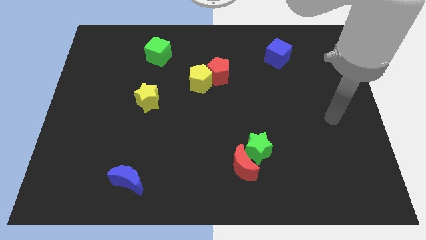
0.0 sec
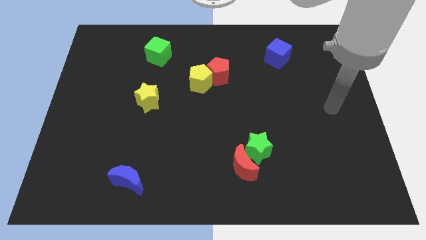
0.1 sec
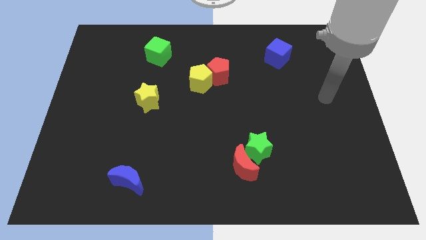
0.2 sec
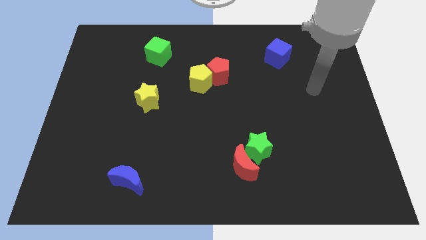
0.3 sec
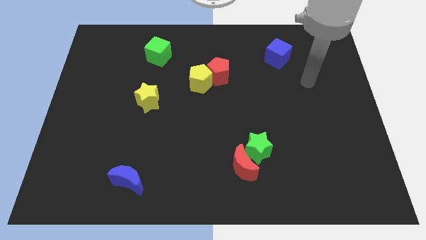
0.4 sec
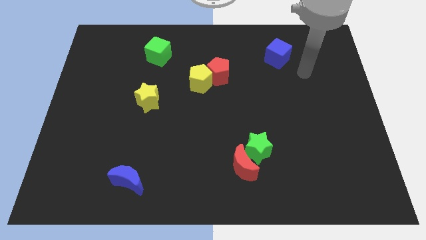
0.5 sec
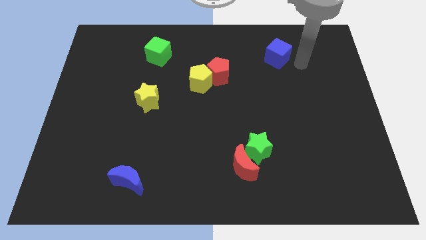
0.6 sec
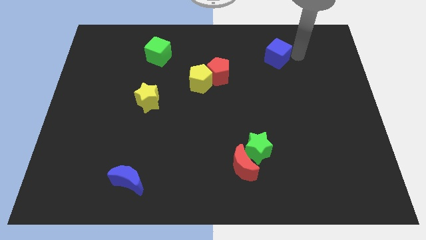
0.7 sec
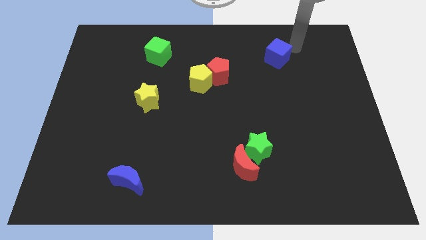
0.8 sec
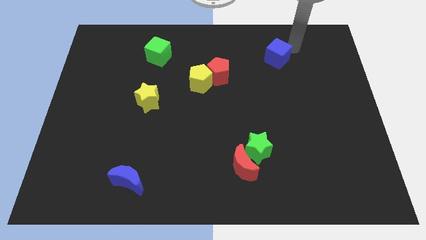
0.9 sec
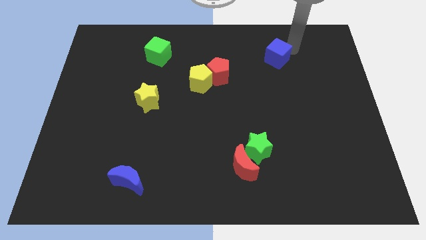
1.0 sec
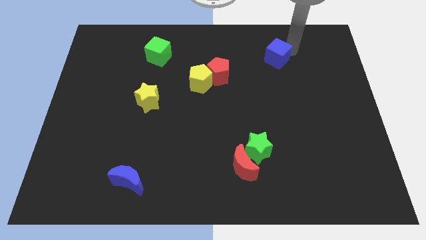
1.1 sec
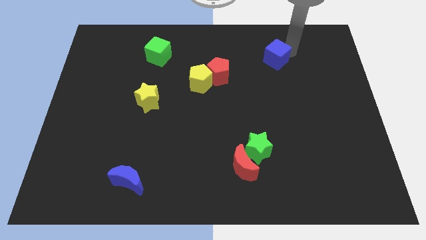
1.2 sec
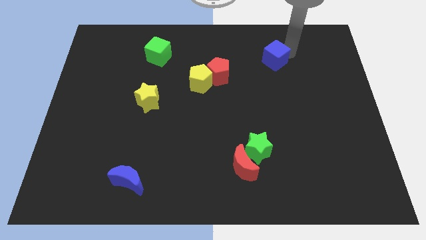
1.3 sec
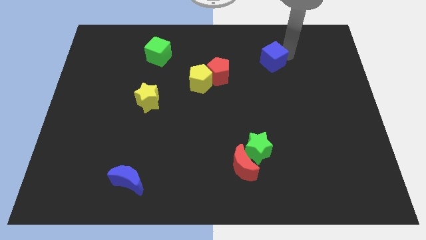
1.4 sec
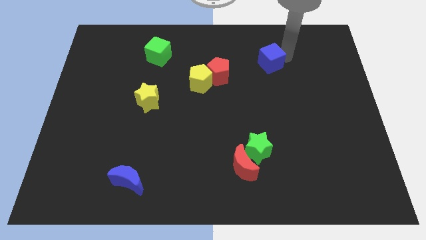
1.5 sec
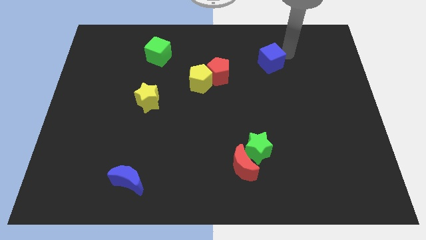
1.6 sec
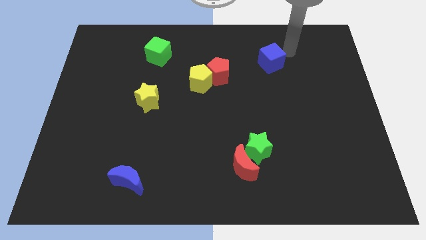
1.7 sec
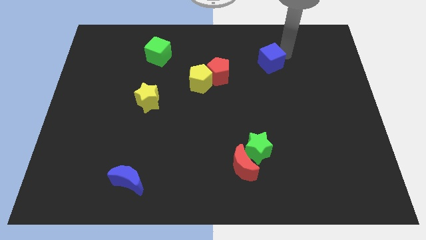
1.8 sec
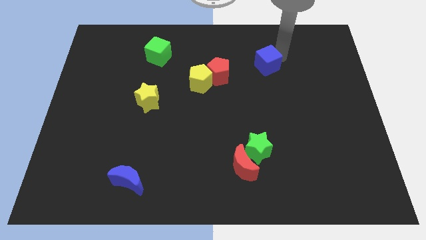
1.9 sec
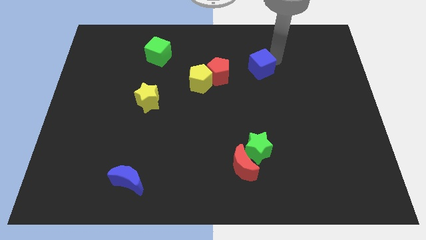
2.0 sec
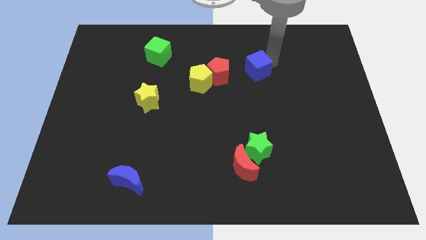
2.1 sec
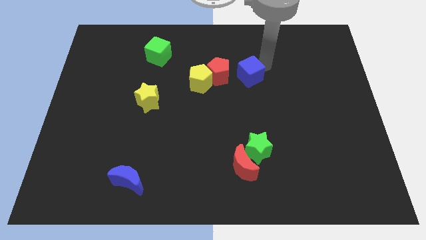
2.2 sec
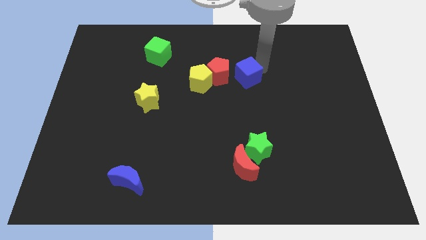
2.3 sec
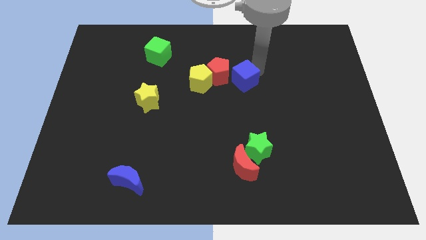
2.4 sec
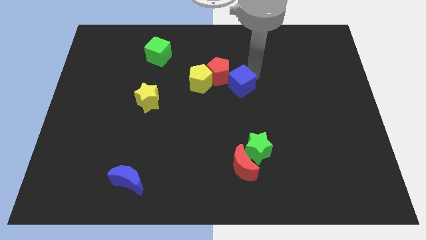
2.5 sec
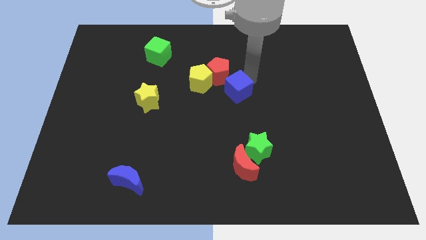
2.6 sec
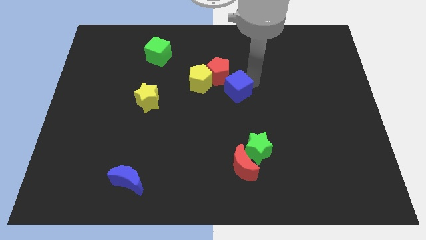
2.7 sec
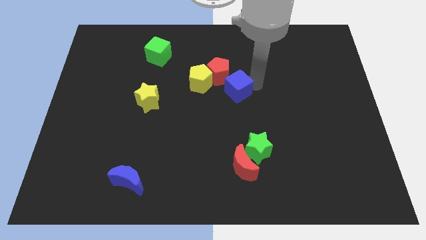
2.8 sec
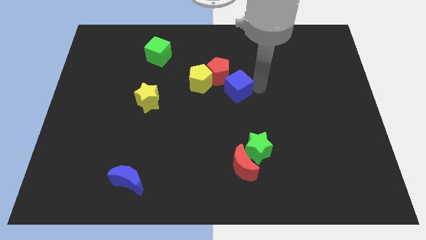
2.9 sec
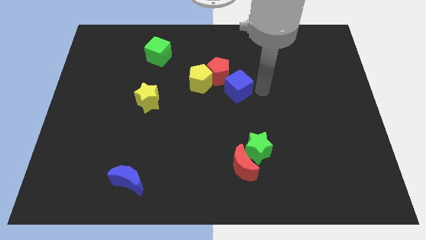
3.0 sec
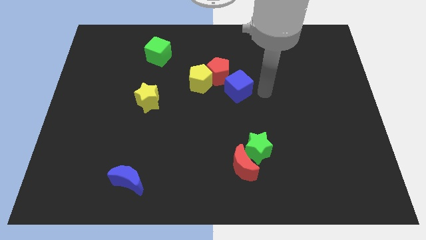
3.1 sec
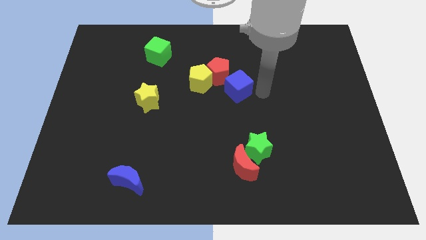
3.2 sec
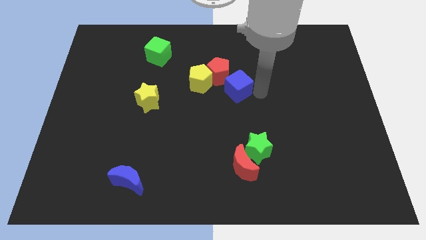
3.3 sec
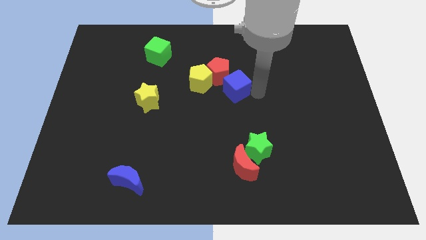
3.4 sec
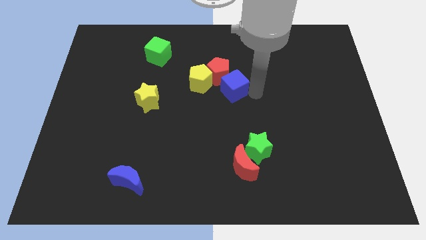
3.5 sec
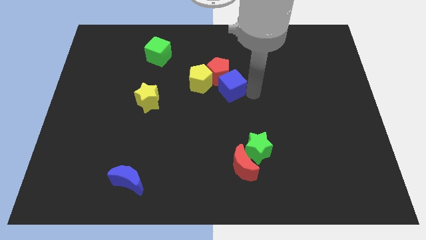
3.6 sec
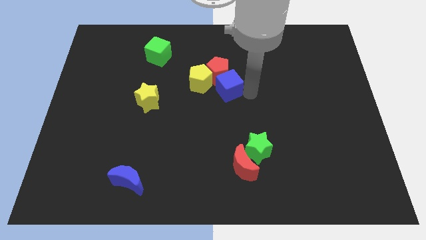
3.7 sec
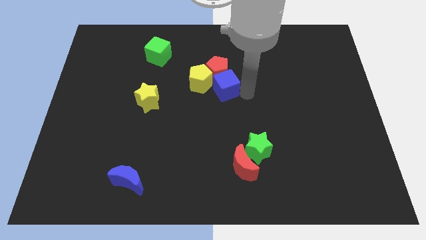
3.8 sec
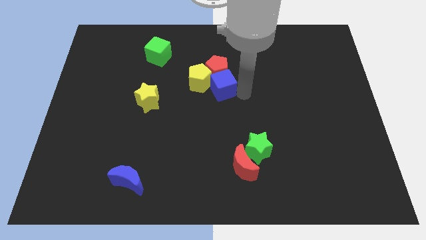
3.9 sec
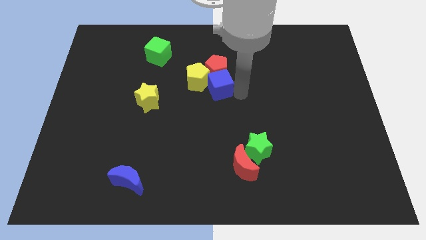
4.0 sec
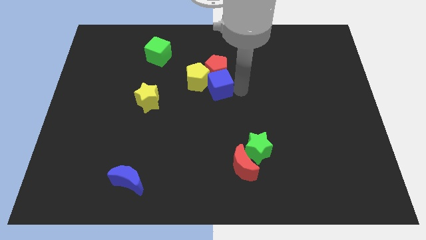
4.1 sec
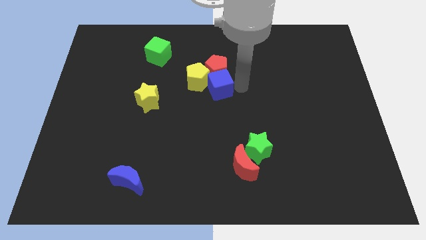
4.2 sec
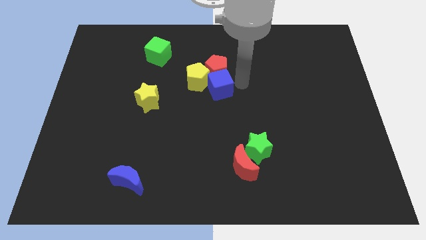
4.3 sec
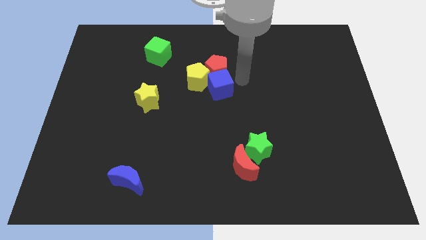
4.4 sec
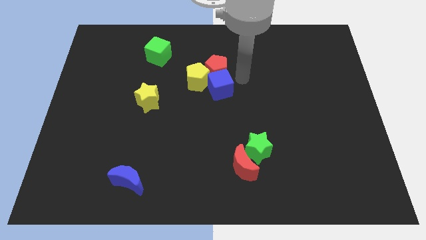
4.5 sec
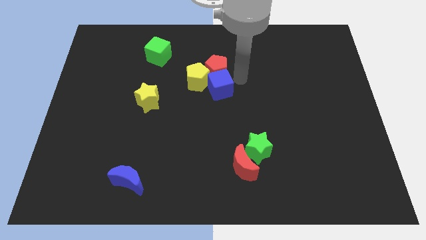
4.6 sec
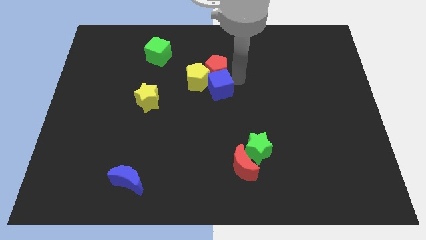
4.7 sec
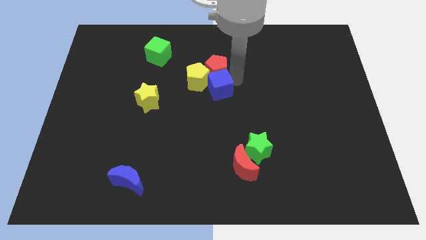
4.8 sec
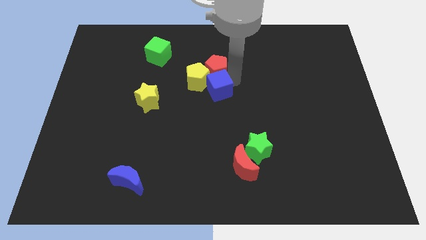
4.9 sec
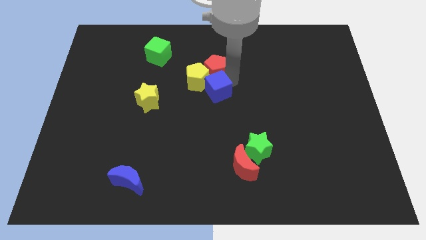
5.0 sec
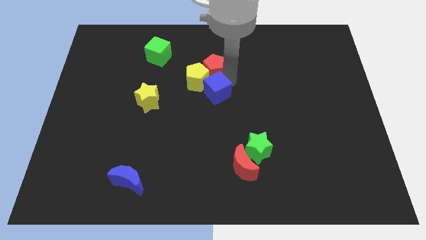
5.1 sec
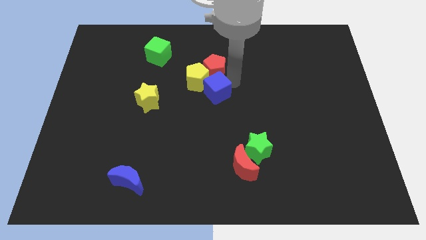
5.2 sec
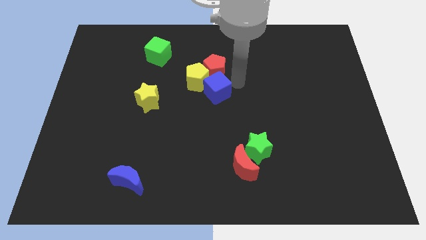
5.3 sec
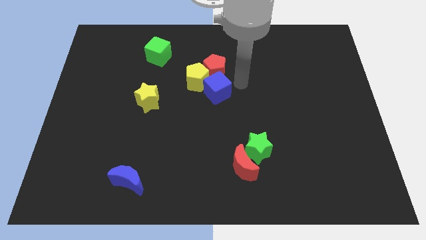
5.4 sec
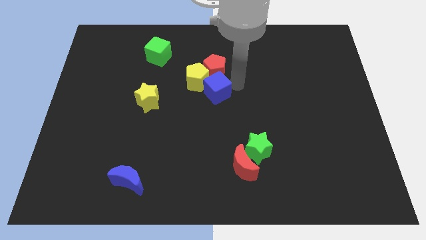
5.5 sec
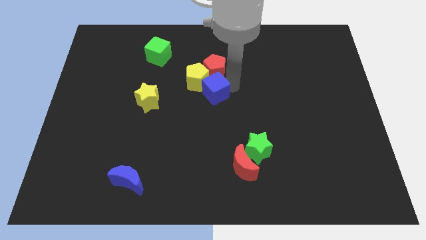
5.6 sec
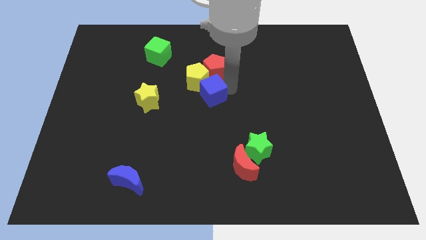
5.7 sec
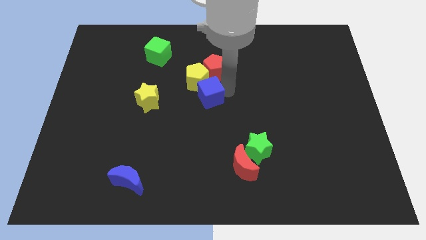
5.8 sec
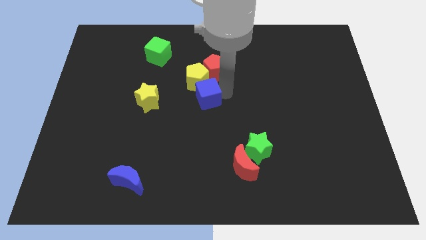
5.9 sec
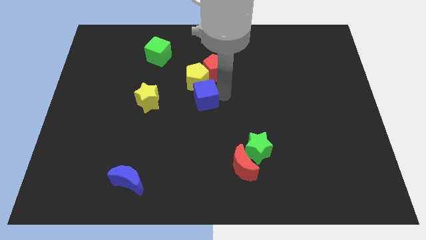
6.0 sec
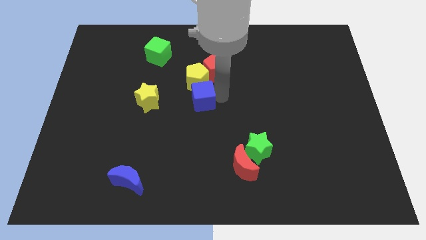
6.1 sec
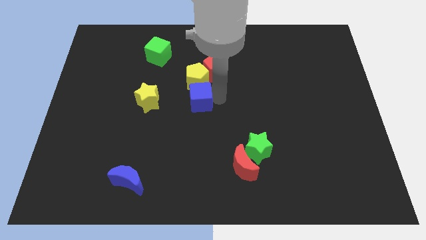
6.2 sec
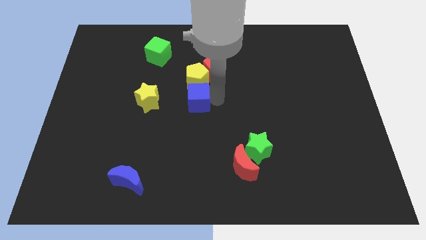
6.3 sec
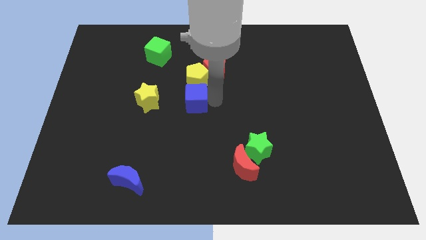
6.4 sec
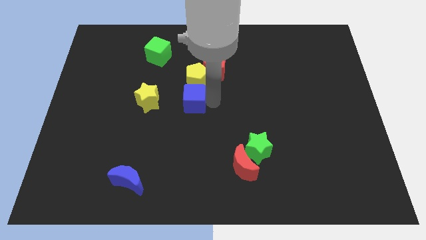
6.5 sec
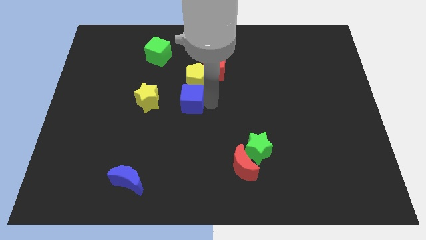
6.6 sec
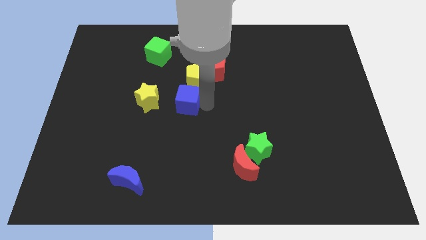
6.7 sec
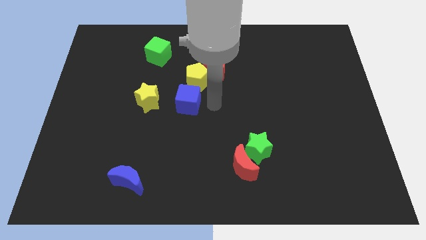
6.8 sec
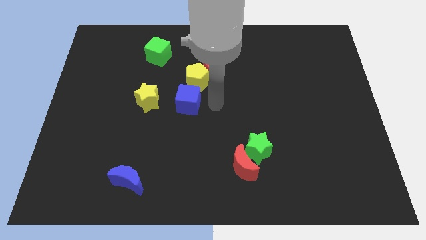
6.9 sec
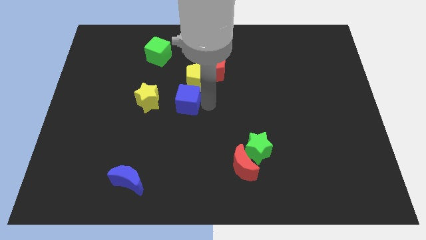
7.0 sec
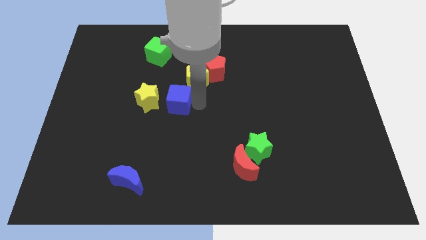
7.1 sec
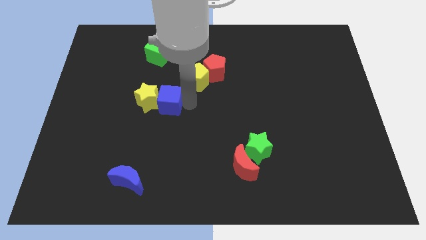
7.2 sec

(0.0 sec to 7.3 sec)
slide the blue cube close to the yellow star
